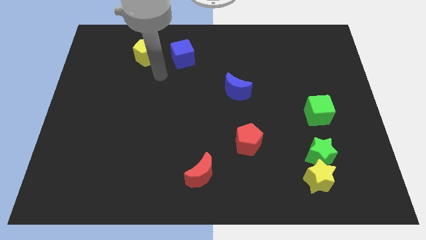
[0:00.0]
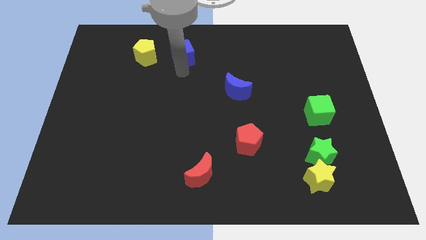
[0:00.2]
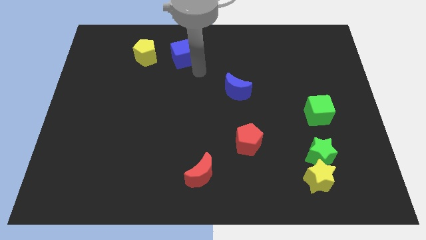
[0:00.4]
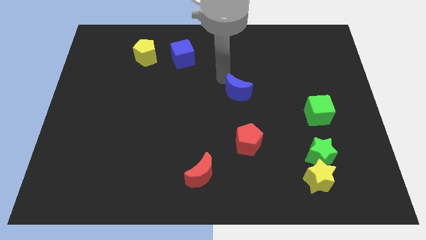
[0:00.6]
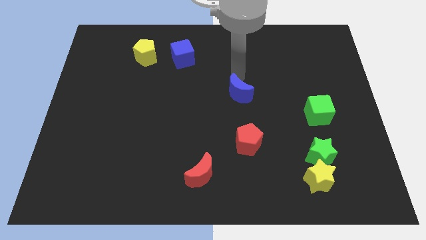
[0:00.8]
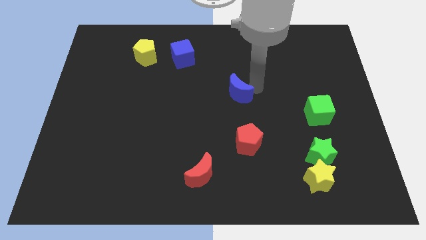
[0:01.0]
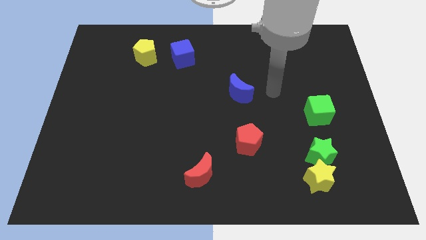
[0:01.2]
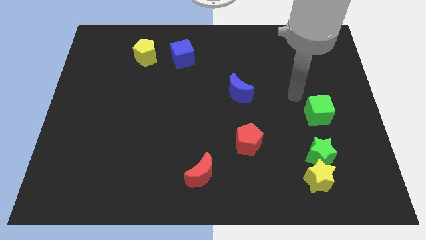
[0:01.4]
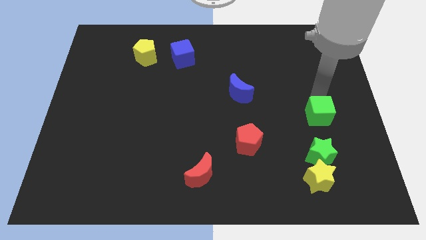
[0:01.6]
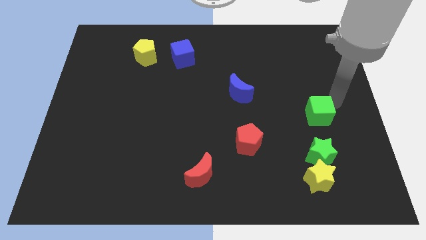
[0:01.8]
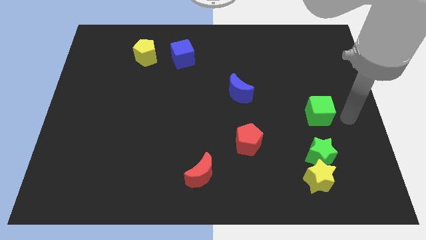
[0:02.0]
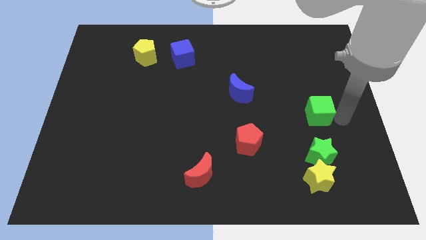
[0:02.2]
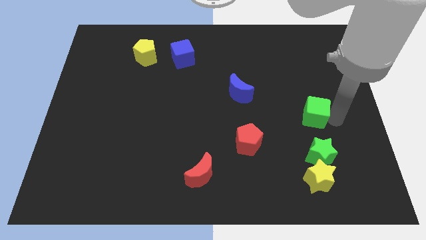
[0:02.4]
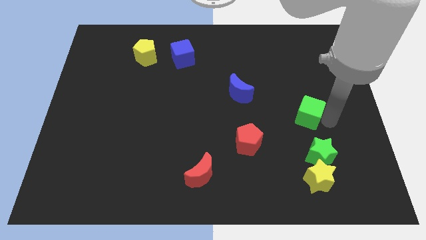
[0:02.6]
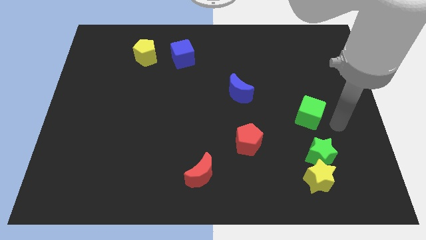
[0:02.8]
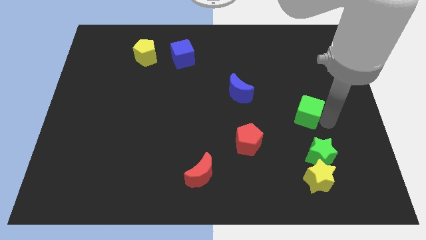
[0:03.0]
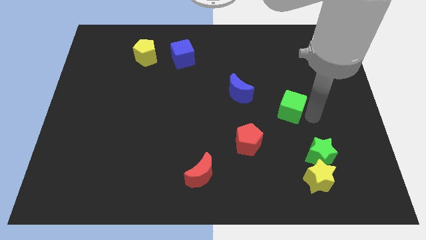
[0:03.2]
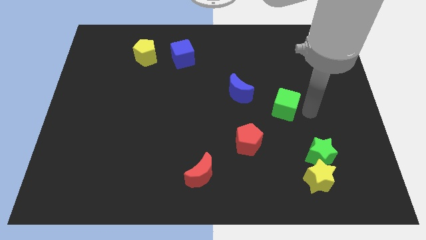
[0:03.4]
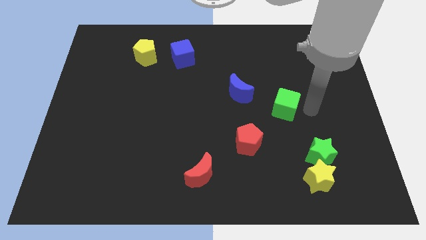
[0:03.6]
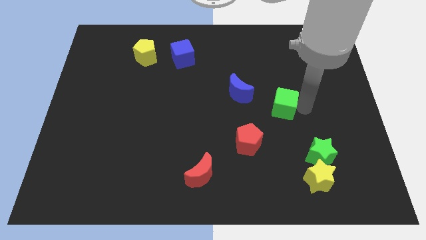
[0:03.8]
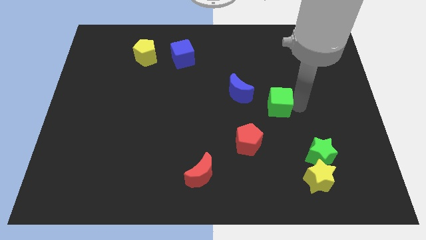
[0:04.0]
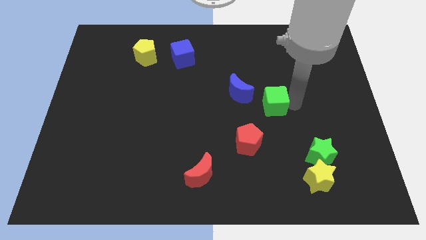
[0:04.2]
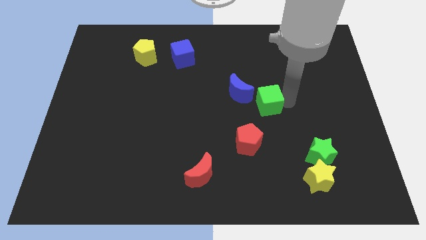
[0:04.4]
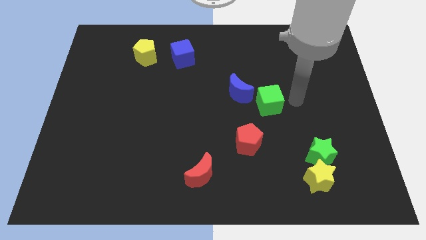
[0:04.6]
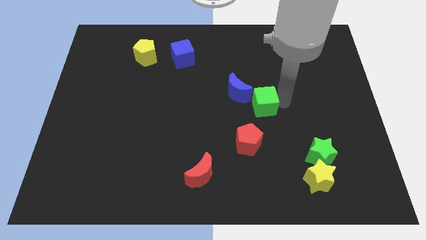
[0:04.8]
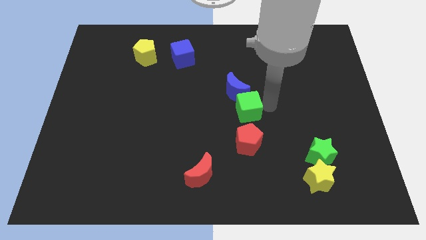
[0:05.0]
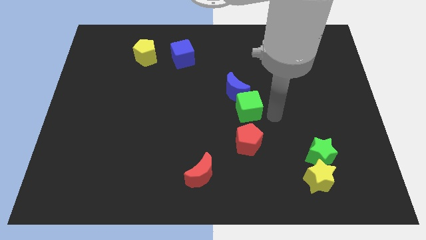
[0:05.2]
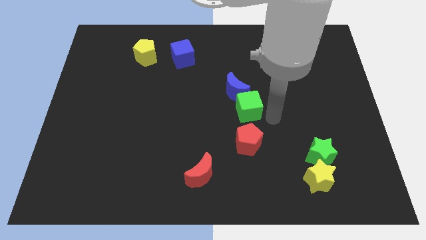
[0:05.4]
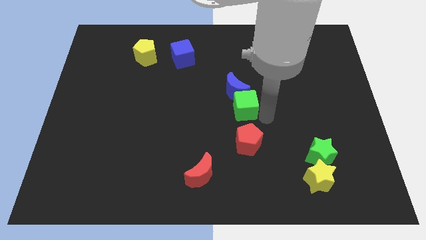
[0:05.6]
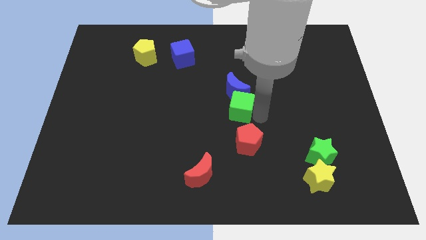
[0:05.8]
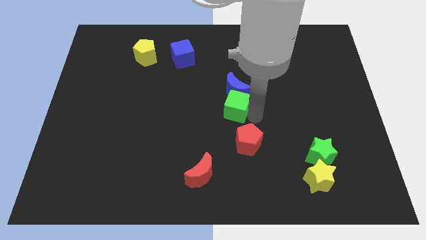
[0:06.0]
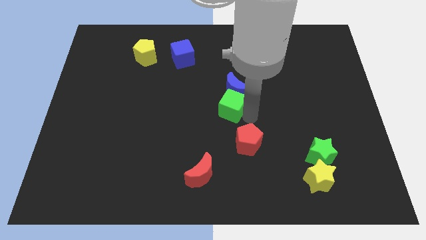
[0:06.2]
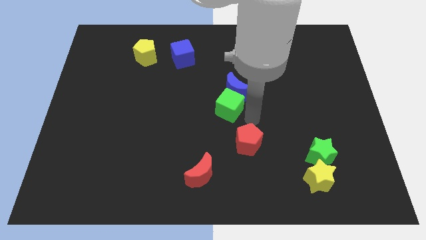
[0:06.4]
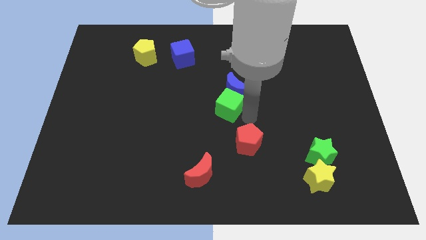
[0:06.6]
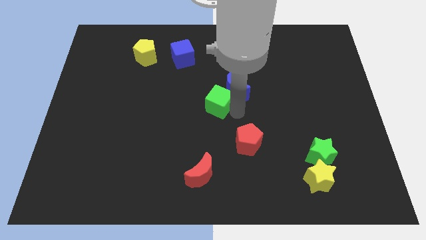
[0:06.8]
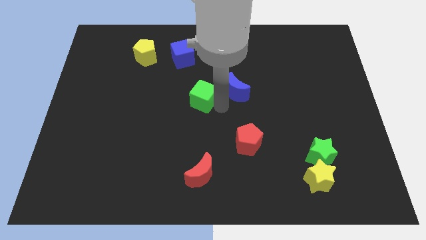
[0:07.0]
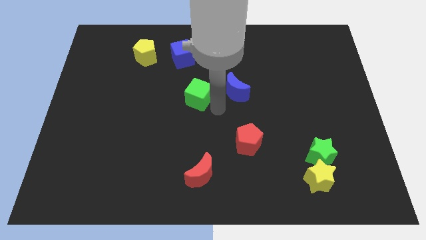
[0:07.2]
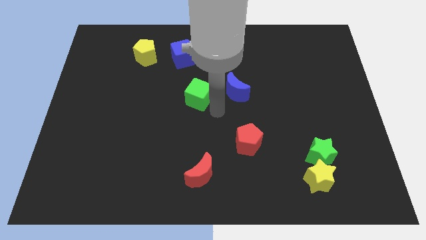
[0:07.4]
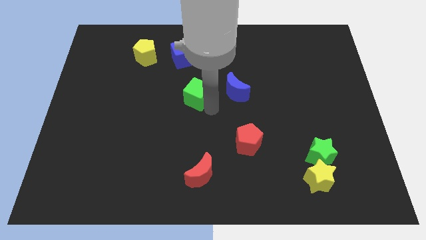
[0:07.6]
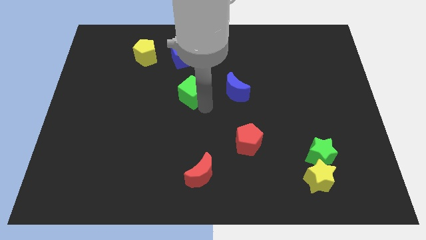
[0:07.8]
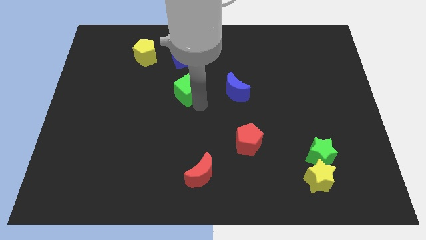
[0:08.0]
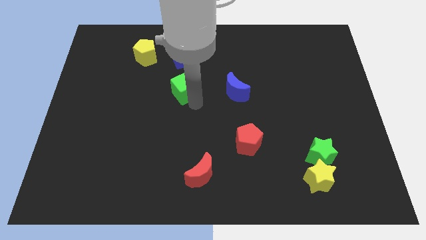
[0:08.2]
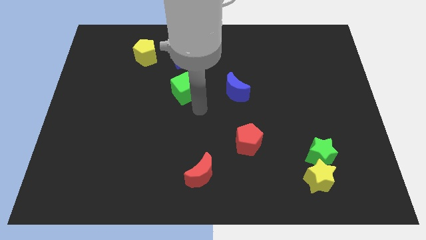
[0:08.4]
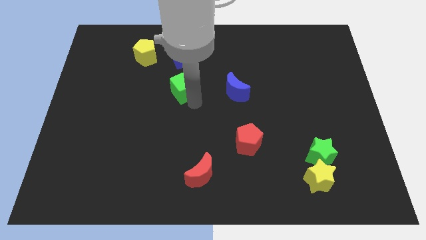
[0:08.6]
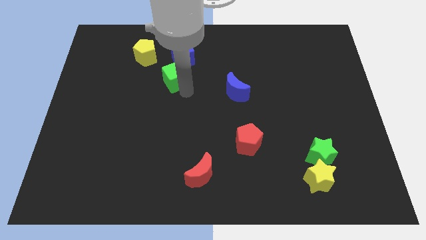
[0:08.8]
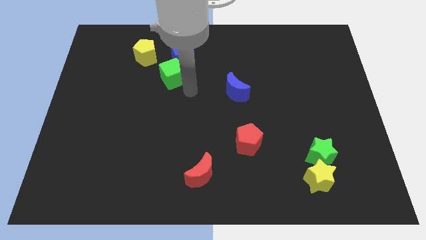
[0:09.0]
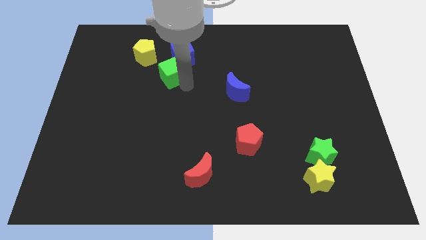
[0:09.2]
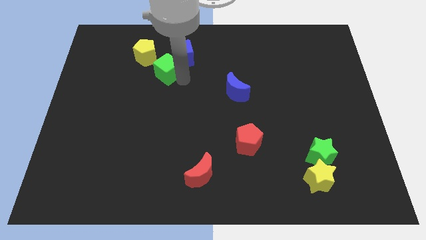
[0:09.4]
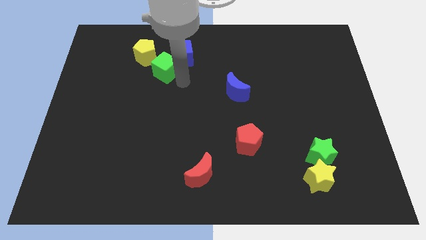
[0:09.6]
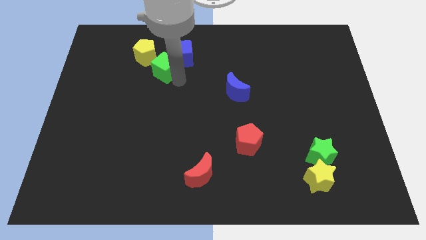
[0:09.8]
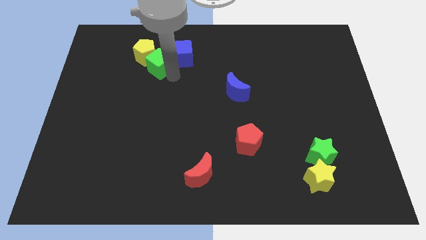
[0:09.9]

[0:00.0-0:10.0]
slide the green cube towards the yellow pentagon

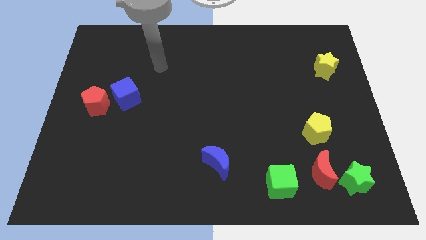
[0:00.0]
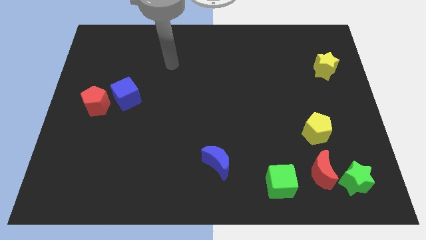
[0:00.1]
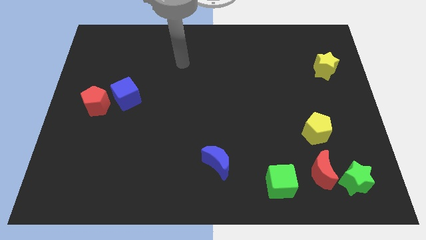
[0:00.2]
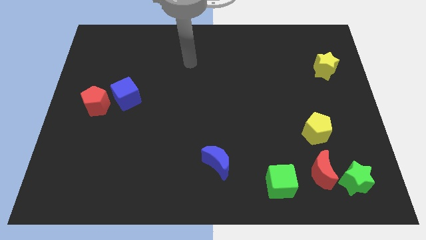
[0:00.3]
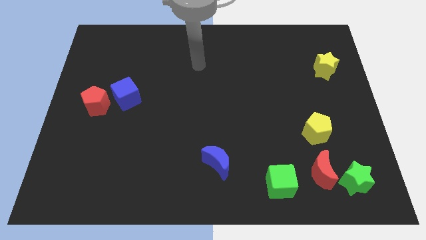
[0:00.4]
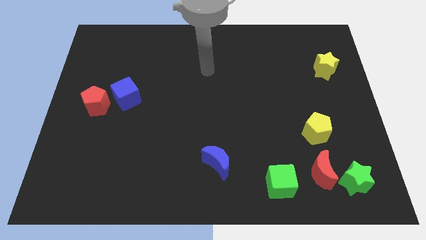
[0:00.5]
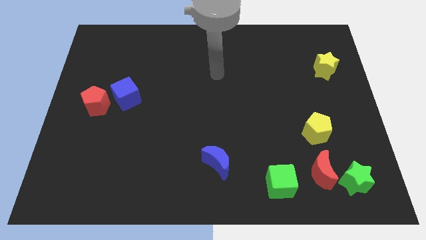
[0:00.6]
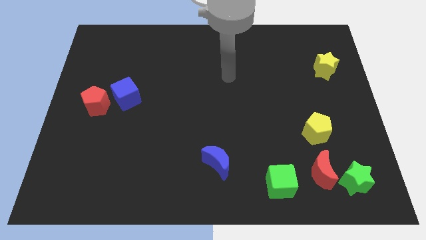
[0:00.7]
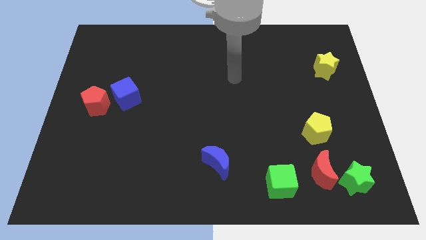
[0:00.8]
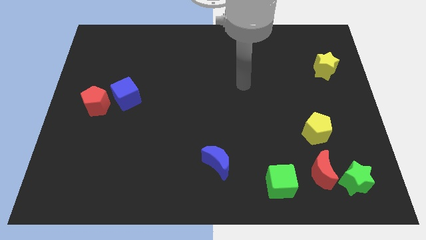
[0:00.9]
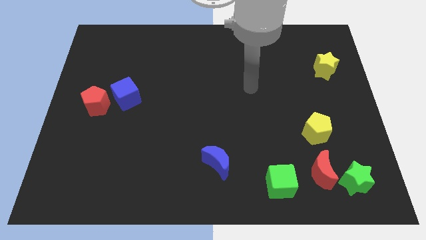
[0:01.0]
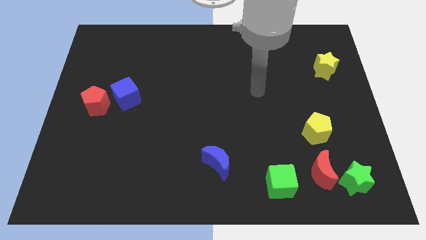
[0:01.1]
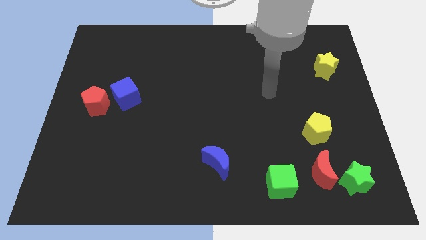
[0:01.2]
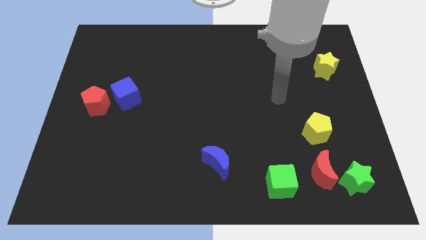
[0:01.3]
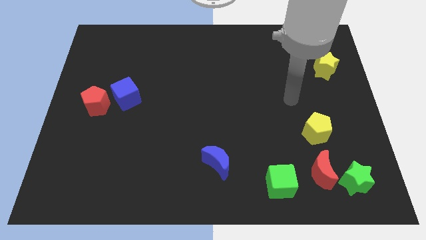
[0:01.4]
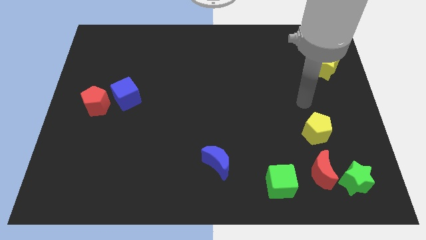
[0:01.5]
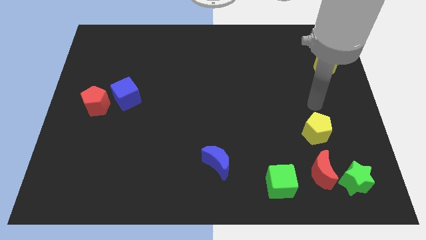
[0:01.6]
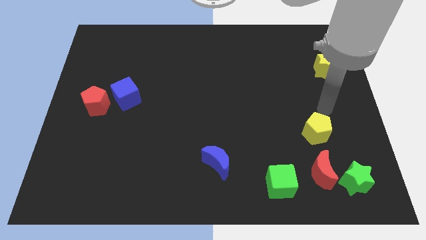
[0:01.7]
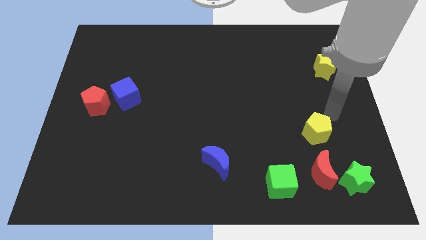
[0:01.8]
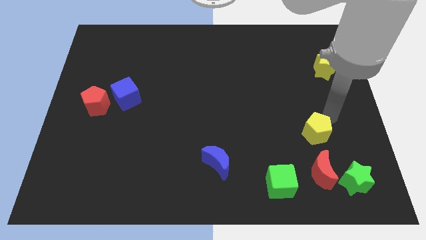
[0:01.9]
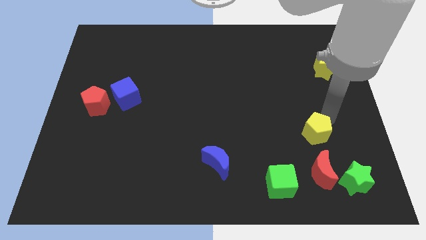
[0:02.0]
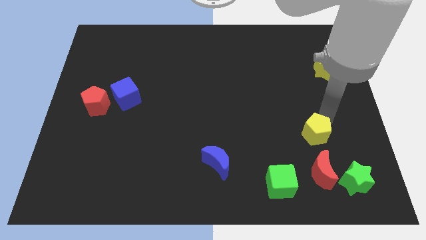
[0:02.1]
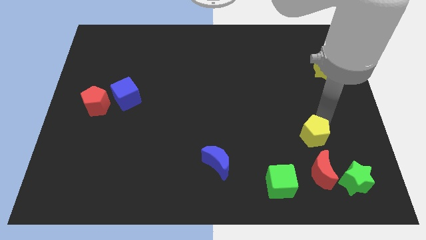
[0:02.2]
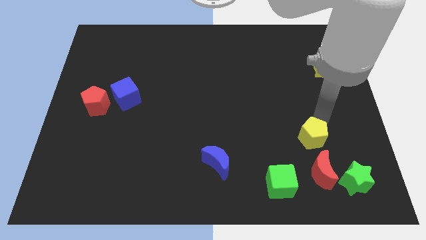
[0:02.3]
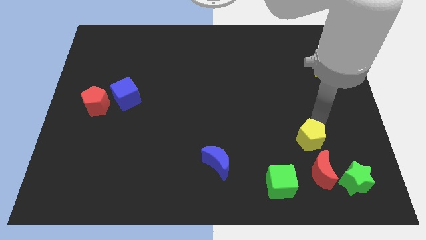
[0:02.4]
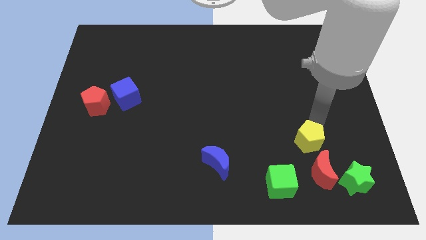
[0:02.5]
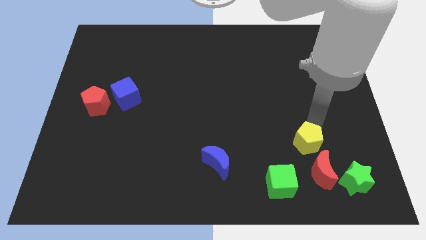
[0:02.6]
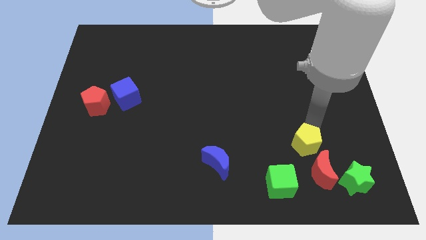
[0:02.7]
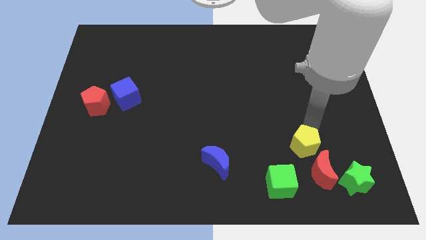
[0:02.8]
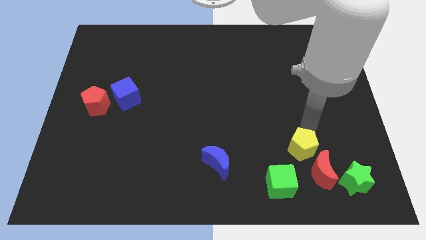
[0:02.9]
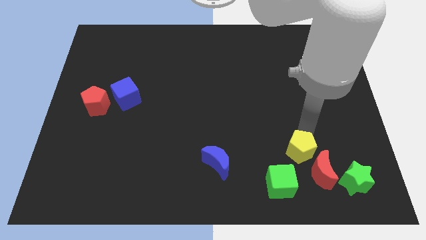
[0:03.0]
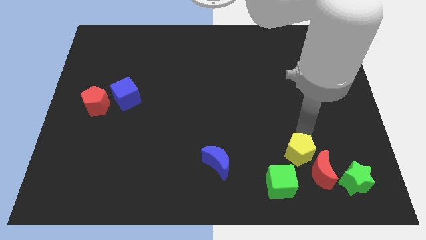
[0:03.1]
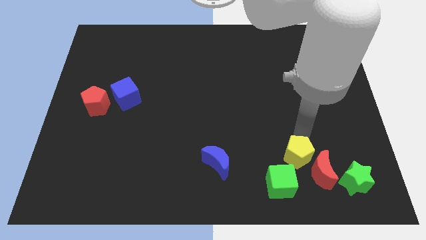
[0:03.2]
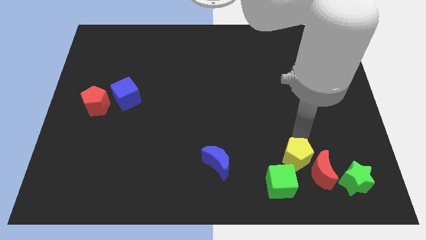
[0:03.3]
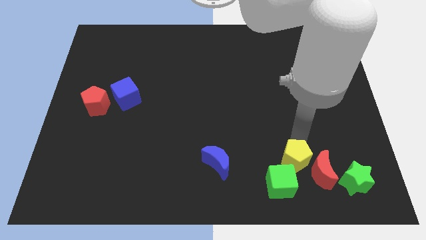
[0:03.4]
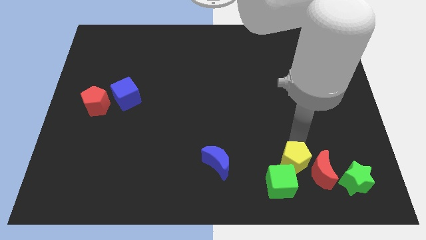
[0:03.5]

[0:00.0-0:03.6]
slide the yellow pentagon towards the green cube
